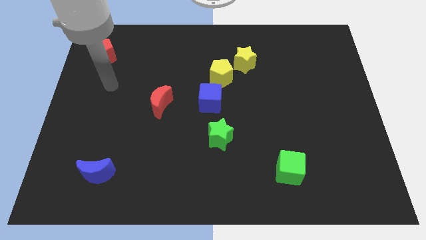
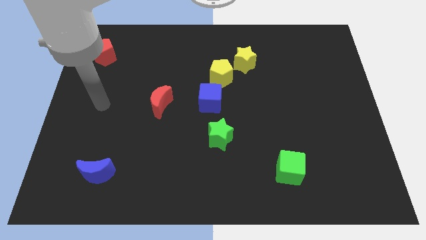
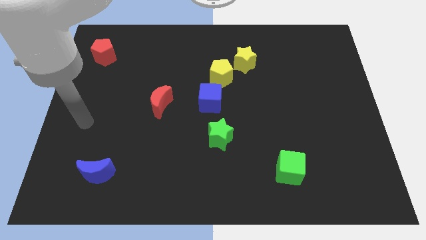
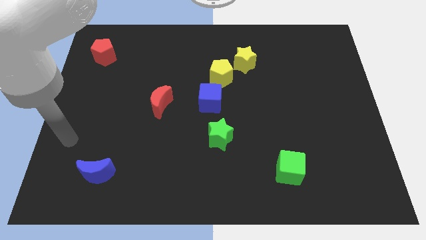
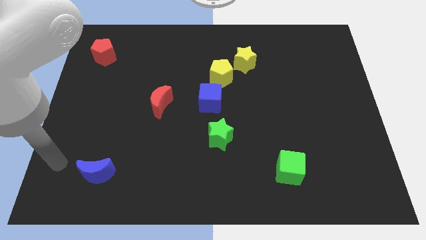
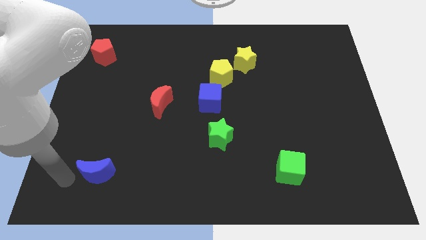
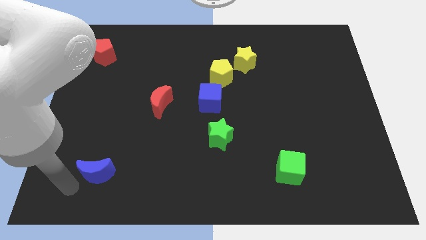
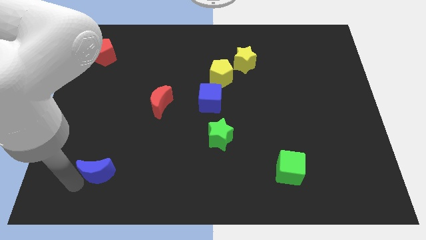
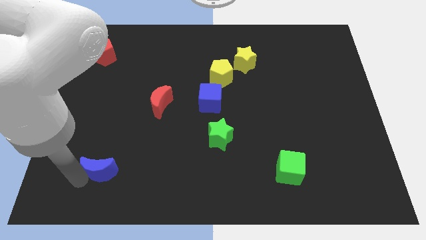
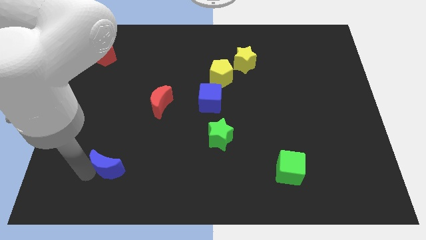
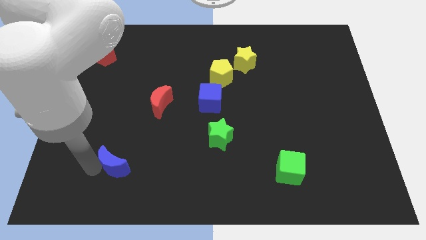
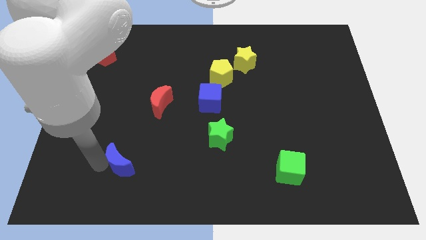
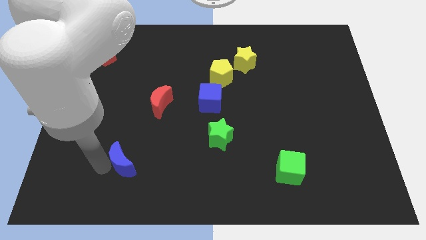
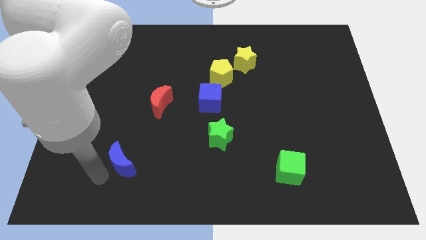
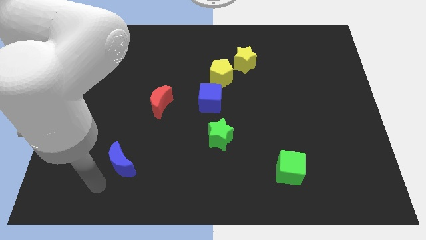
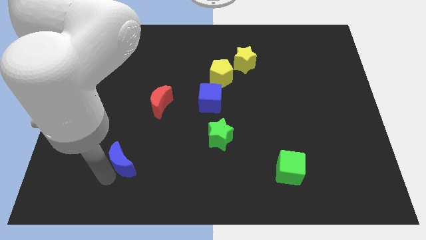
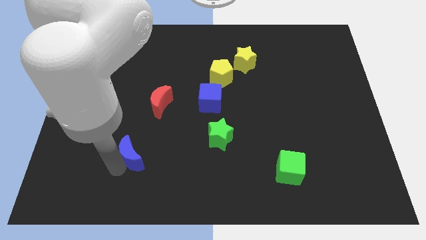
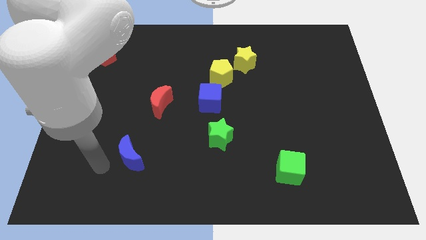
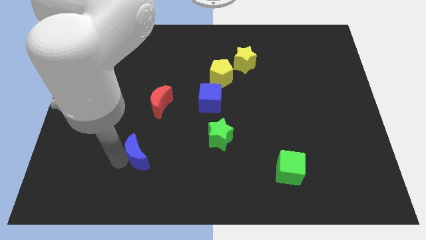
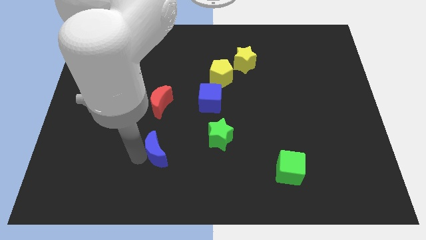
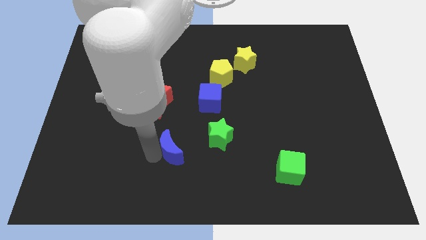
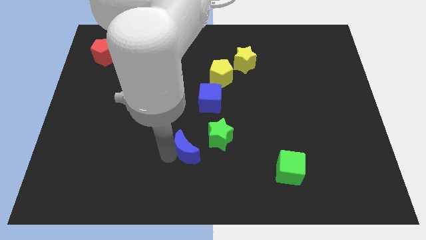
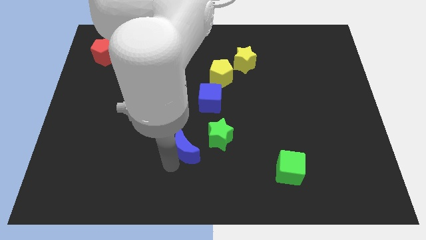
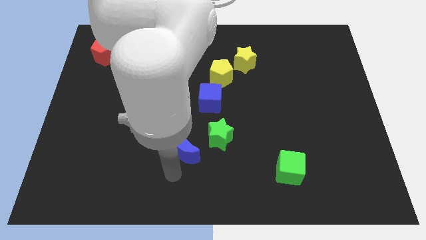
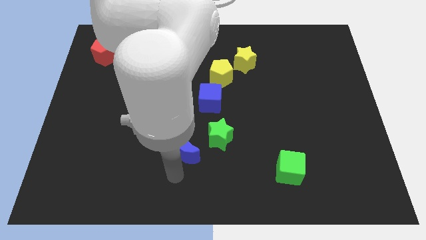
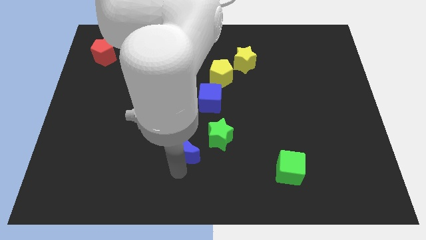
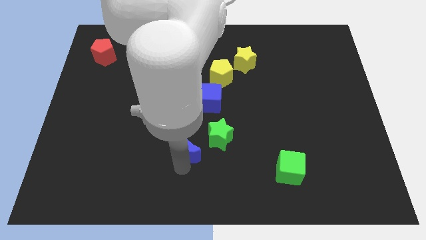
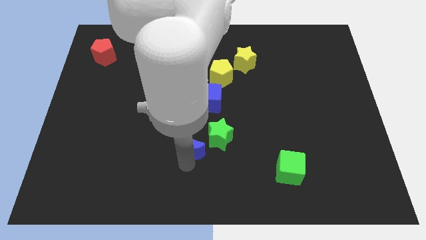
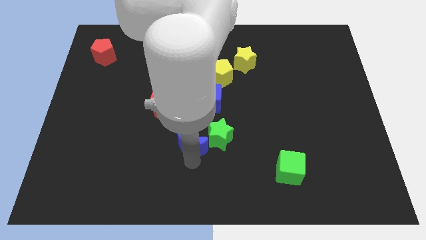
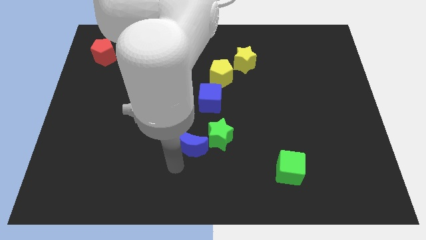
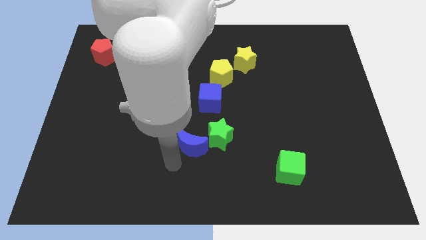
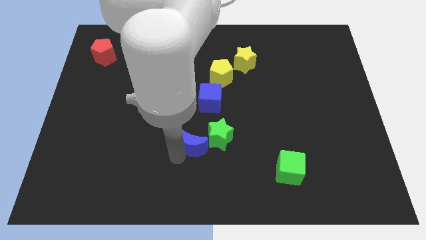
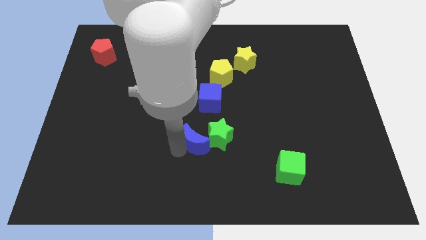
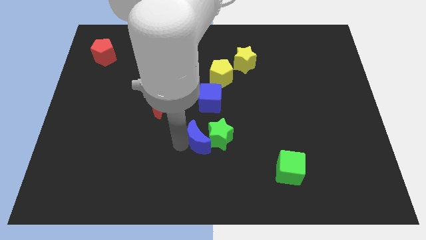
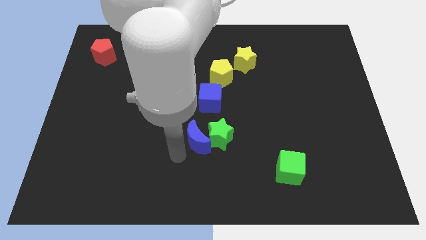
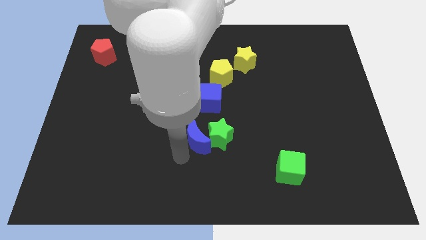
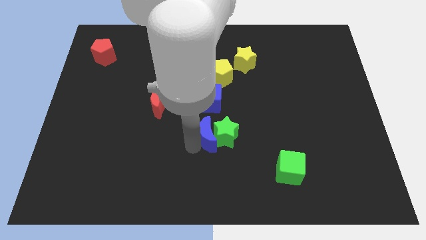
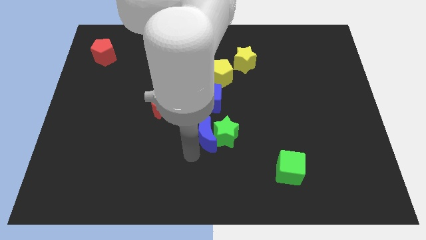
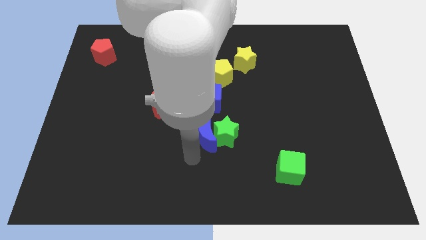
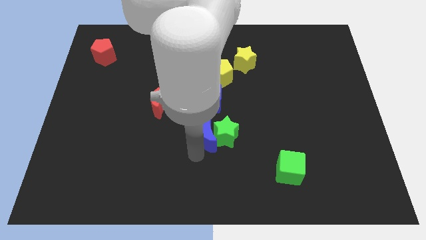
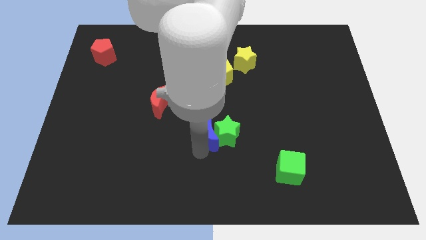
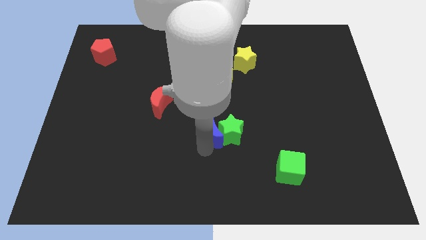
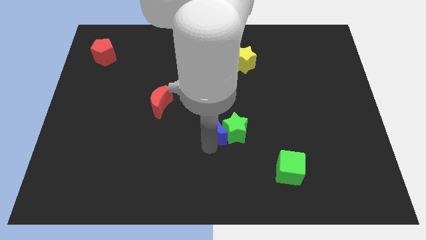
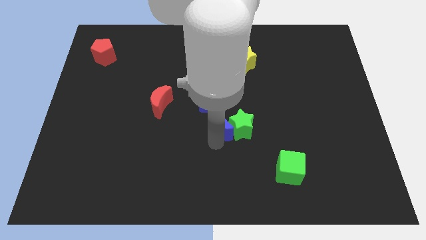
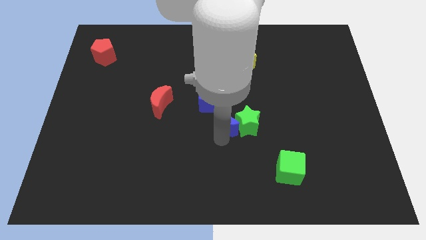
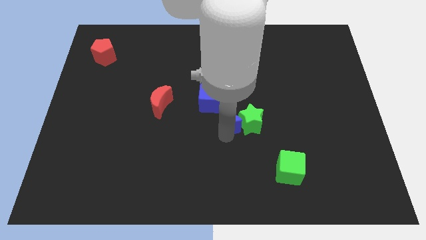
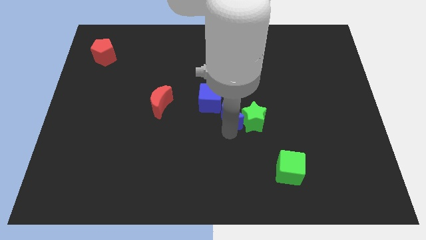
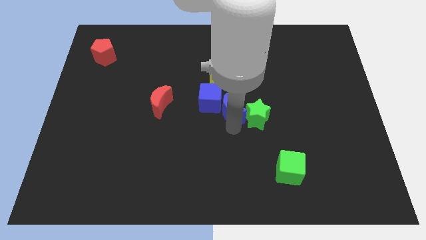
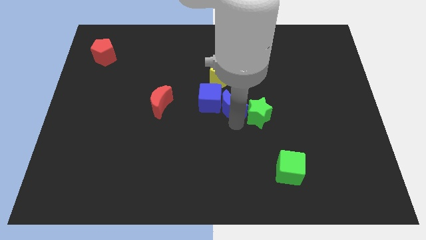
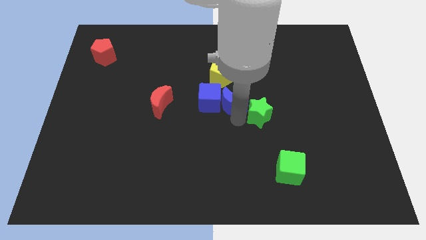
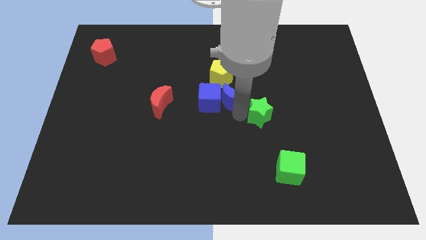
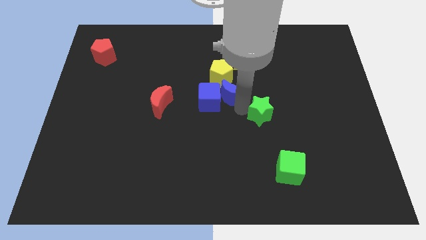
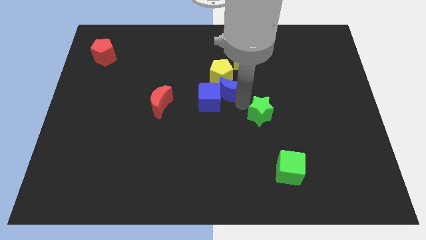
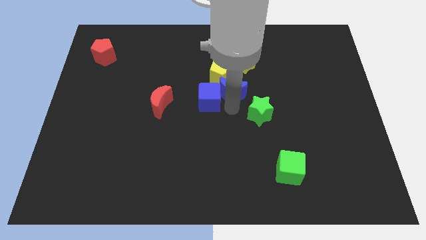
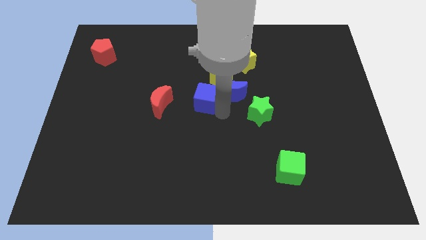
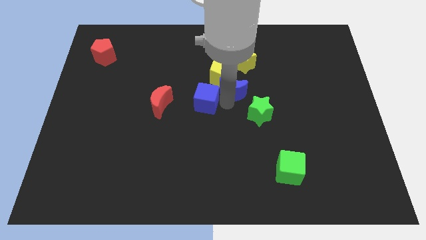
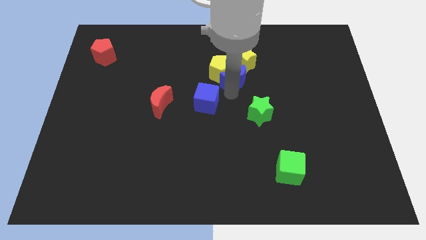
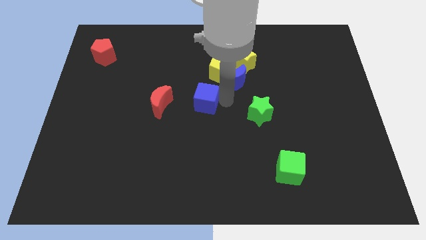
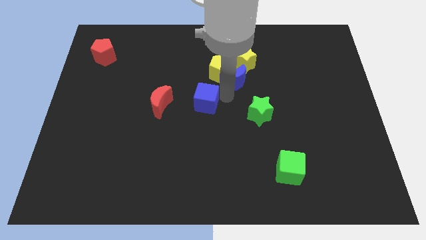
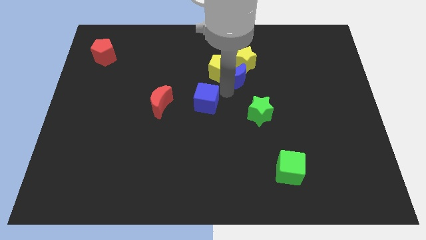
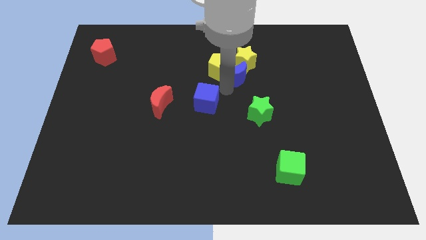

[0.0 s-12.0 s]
move the blue moon to the yellow star

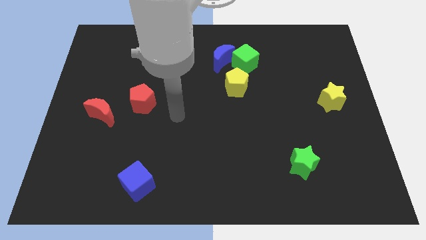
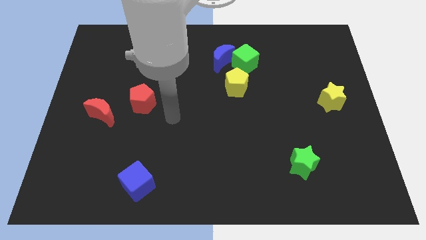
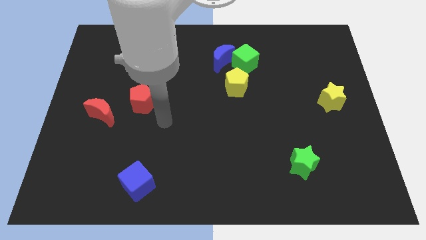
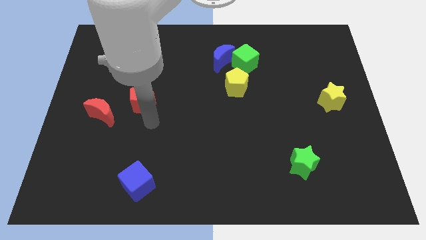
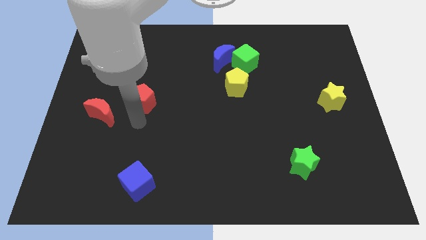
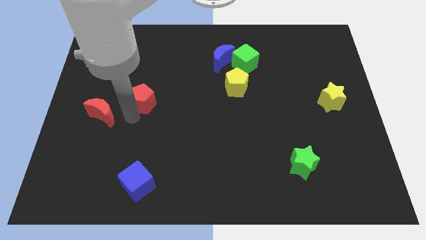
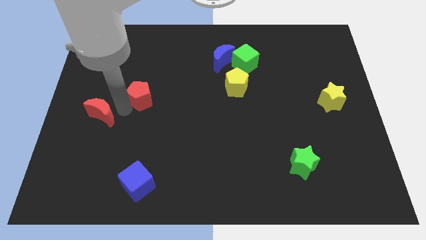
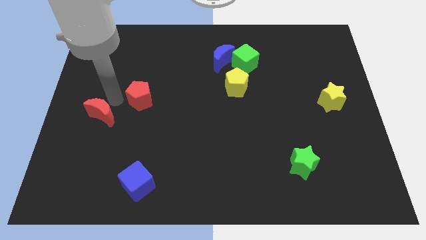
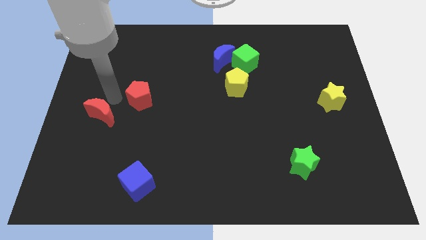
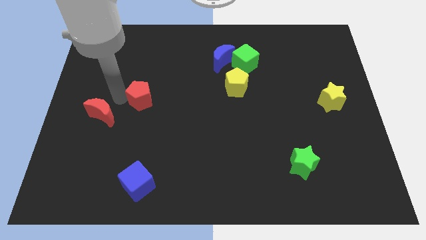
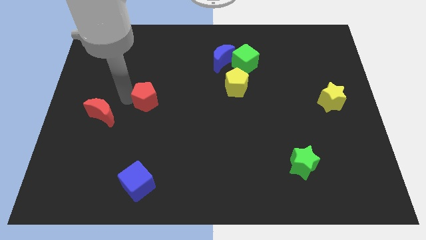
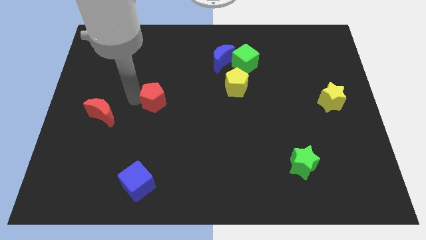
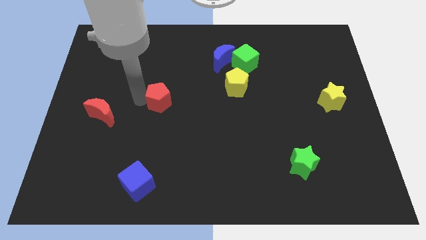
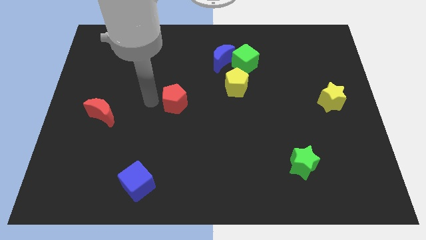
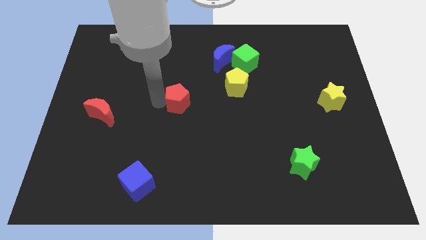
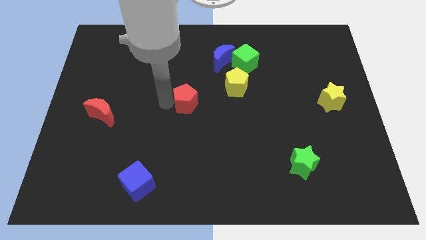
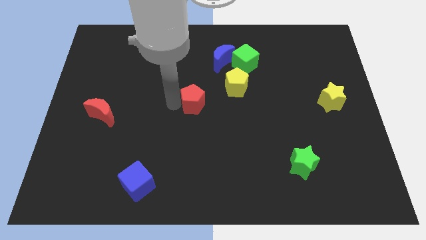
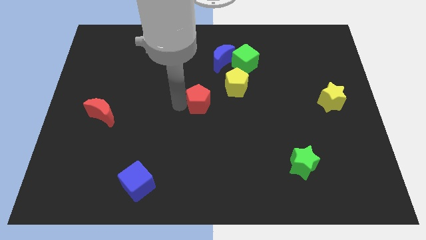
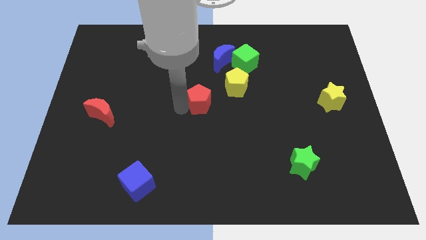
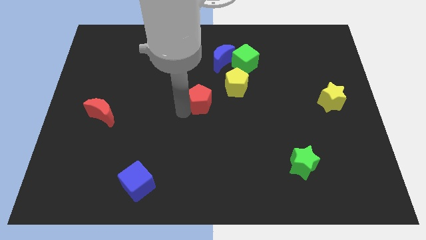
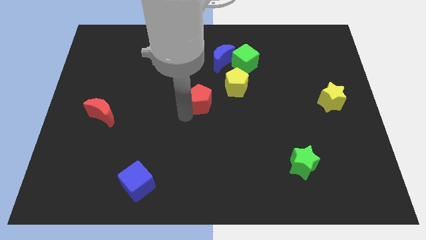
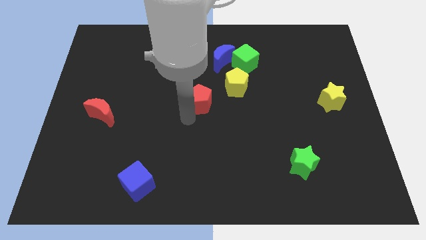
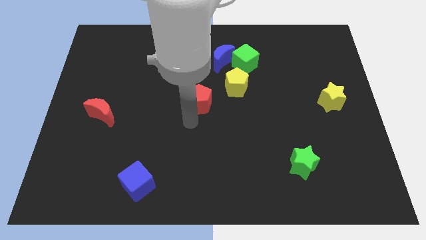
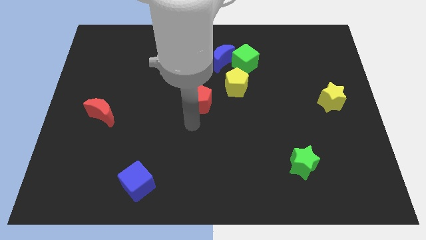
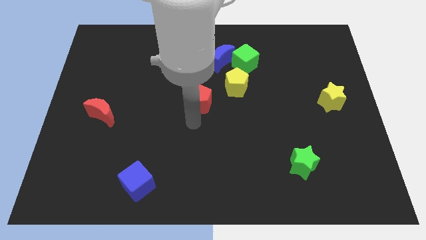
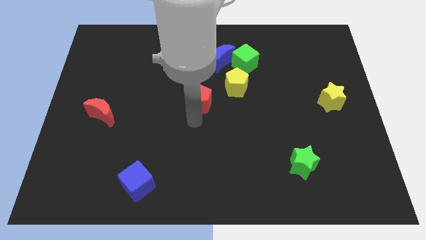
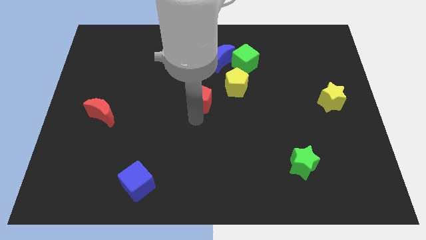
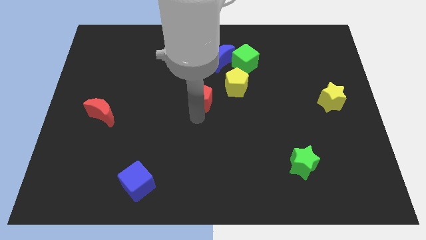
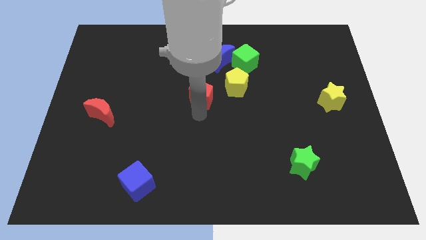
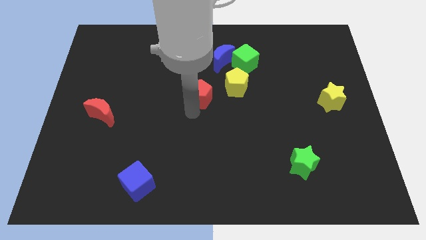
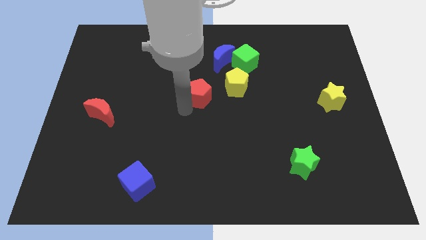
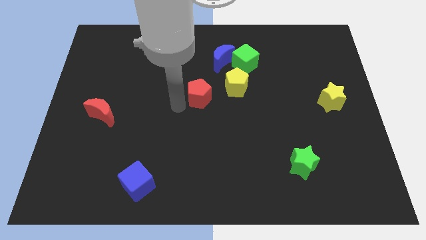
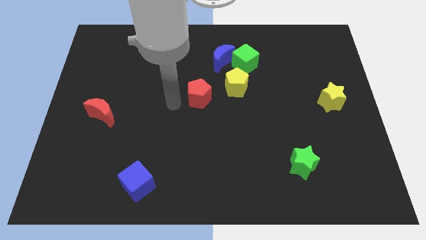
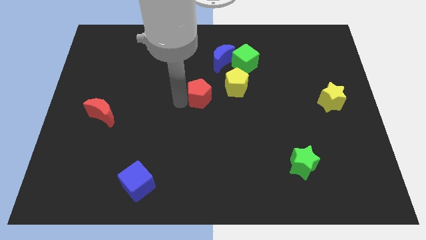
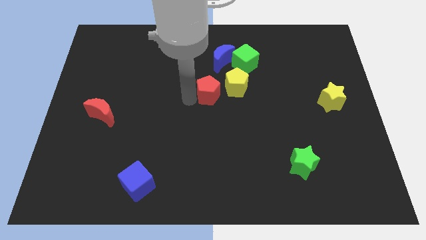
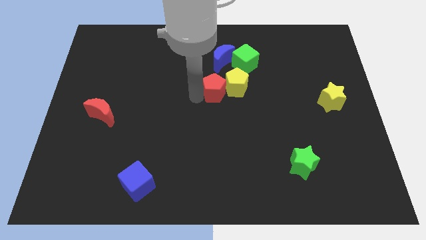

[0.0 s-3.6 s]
move the red pentagon to the yellow pentagon
